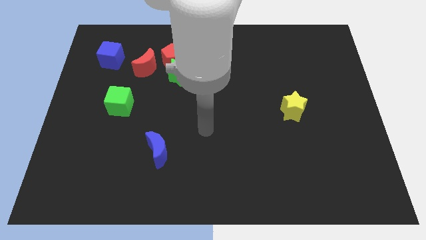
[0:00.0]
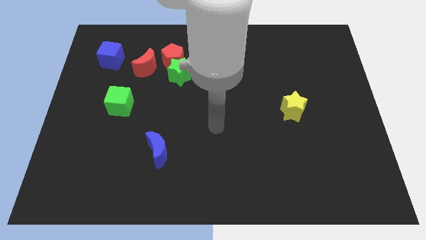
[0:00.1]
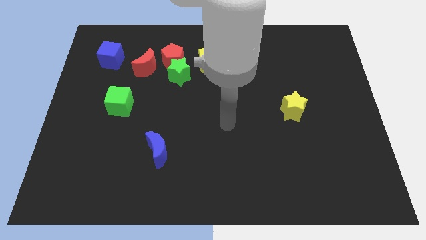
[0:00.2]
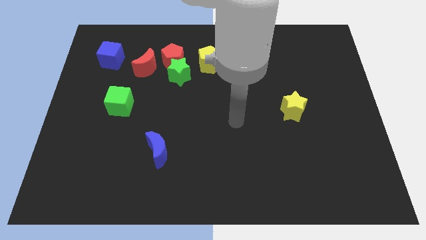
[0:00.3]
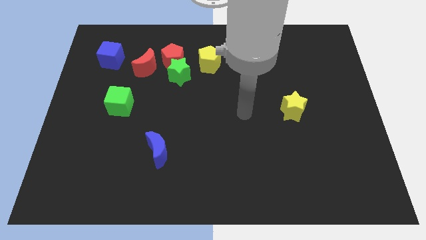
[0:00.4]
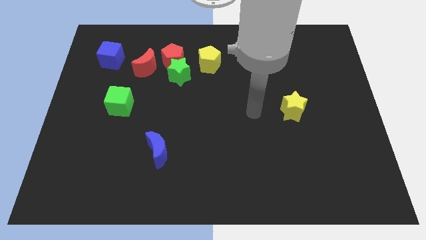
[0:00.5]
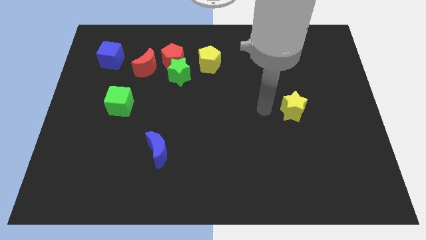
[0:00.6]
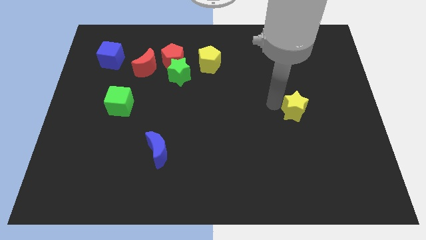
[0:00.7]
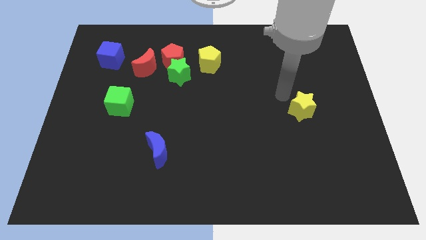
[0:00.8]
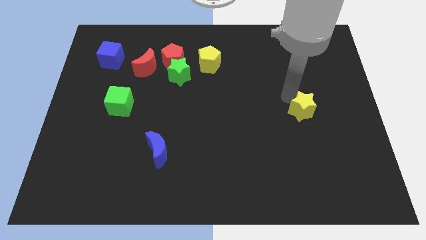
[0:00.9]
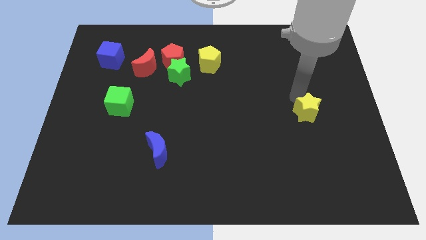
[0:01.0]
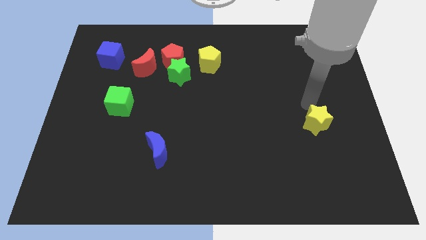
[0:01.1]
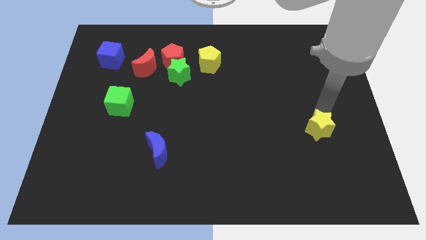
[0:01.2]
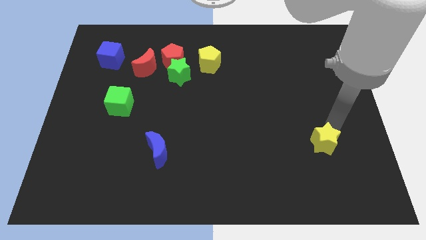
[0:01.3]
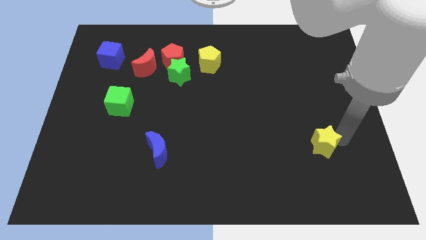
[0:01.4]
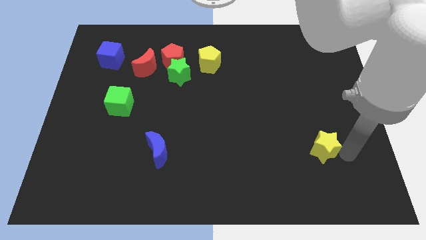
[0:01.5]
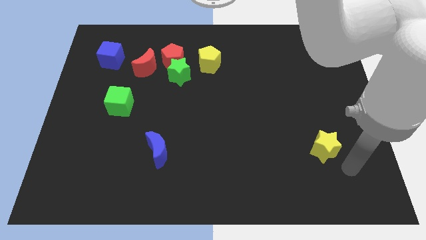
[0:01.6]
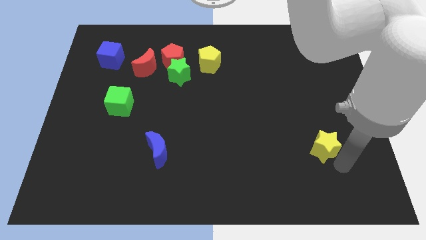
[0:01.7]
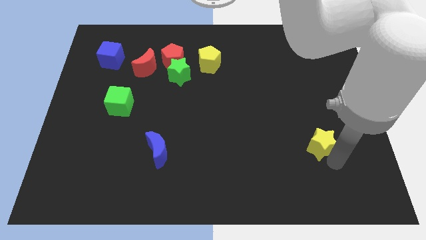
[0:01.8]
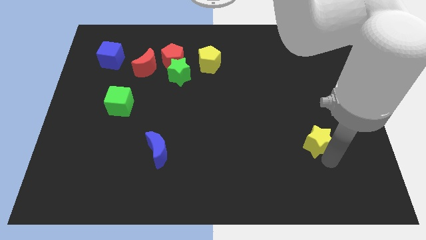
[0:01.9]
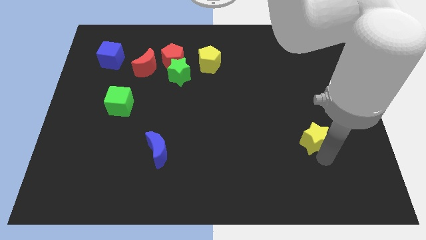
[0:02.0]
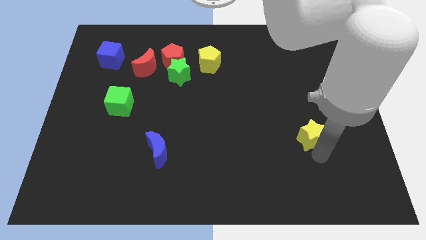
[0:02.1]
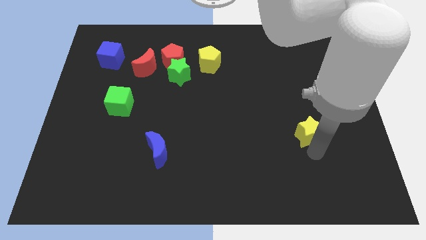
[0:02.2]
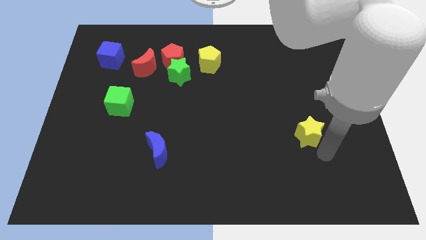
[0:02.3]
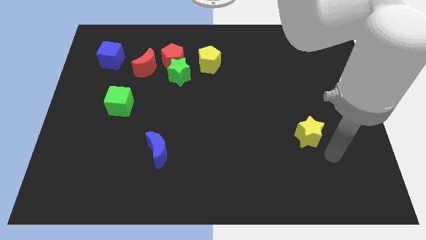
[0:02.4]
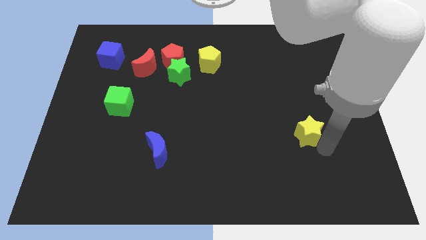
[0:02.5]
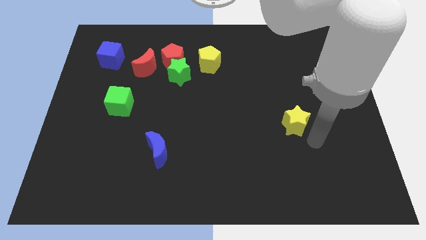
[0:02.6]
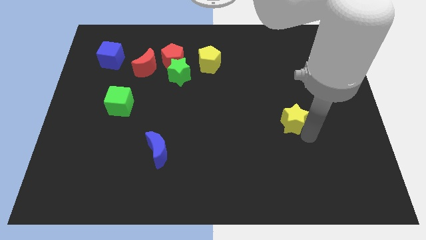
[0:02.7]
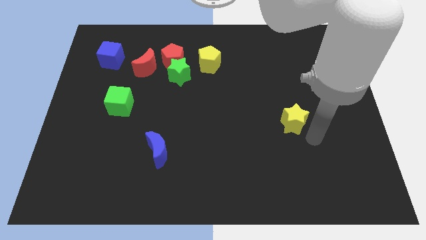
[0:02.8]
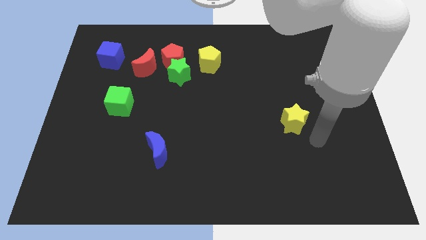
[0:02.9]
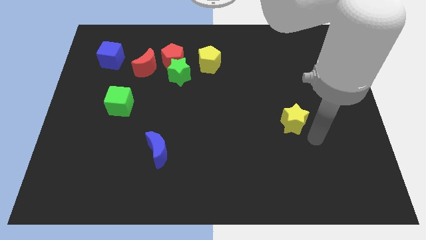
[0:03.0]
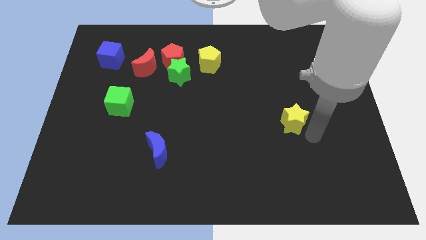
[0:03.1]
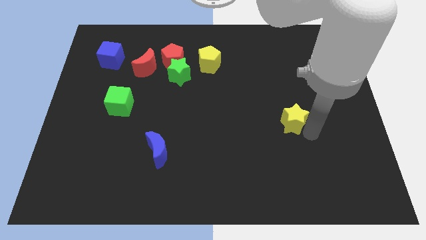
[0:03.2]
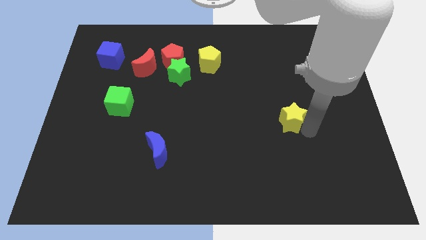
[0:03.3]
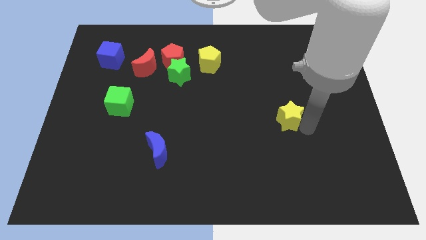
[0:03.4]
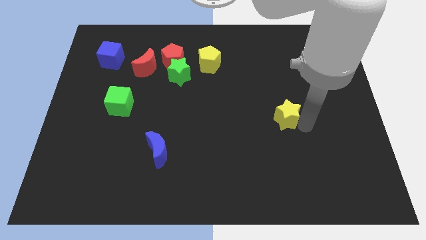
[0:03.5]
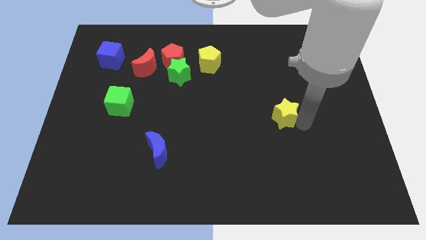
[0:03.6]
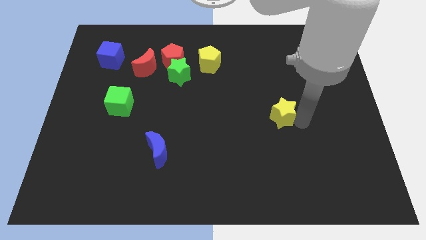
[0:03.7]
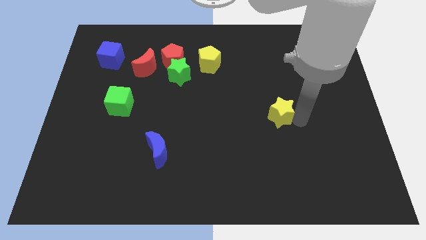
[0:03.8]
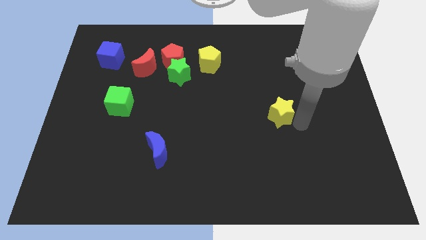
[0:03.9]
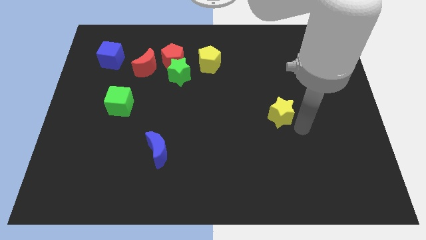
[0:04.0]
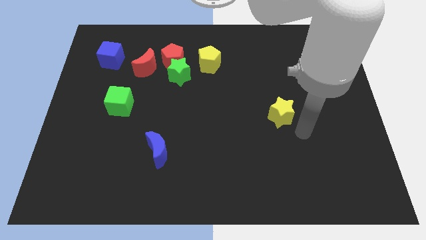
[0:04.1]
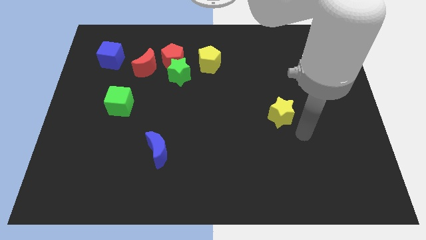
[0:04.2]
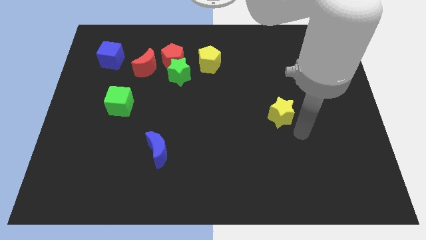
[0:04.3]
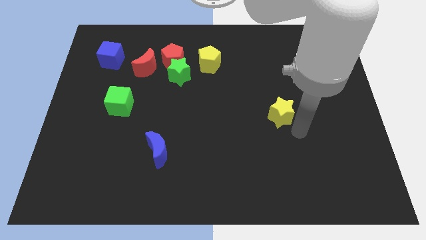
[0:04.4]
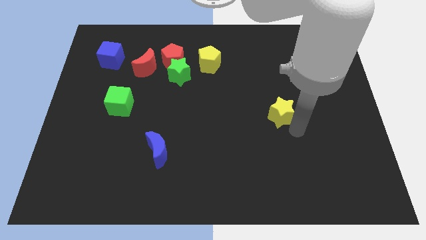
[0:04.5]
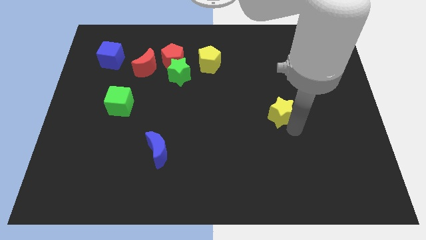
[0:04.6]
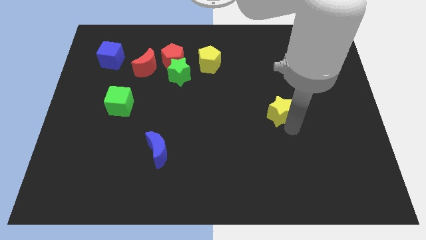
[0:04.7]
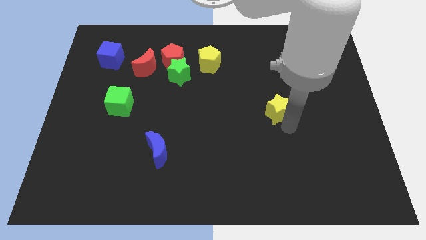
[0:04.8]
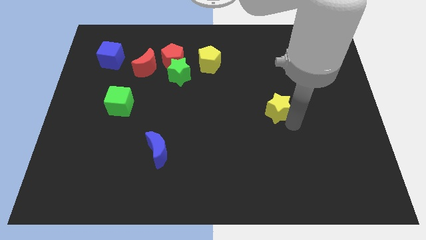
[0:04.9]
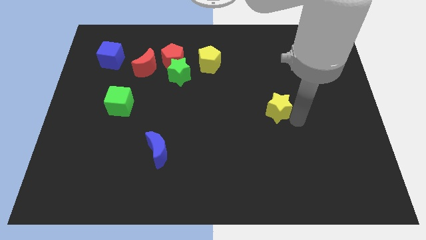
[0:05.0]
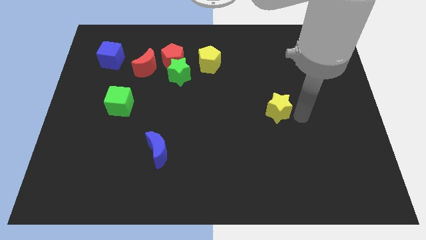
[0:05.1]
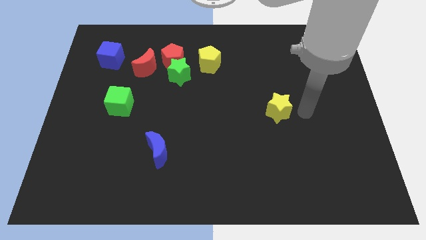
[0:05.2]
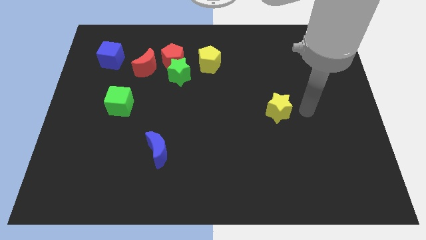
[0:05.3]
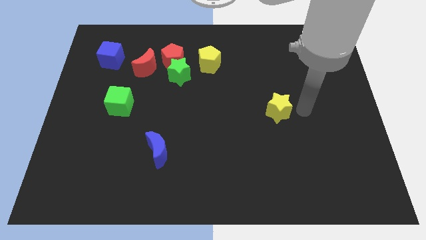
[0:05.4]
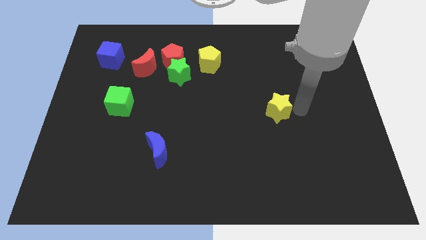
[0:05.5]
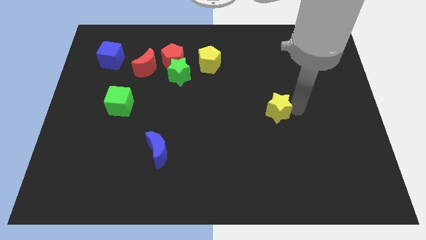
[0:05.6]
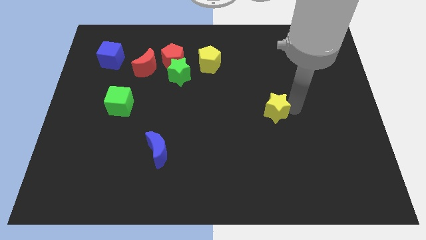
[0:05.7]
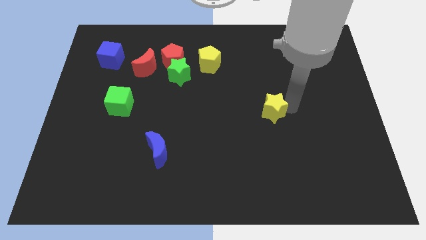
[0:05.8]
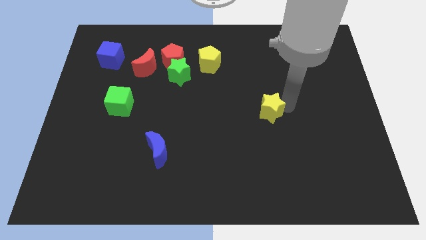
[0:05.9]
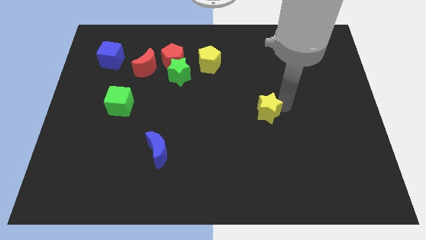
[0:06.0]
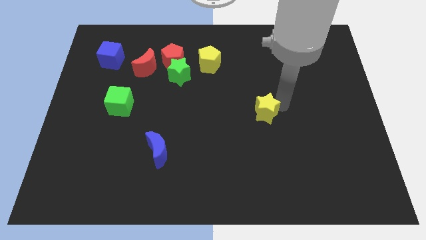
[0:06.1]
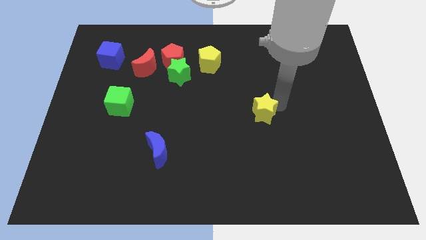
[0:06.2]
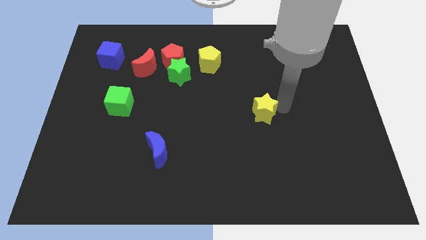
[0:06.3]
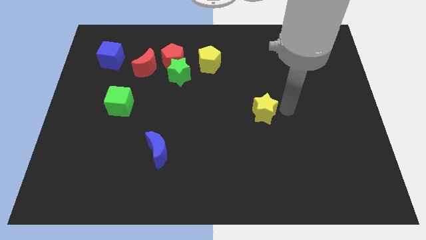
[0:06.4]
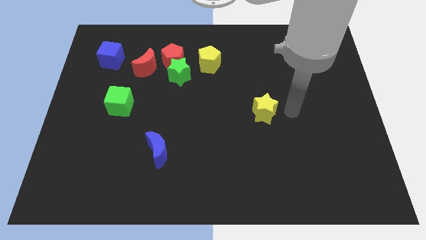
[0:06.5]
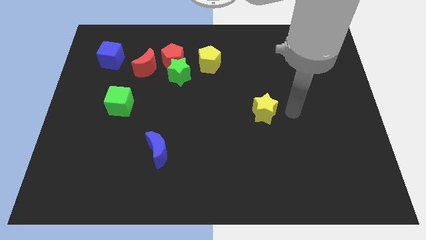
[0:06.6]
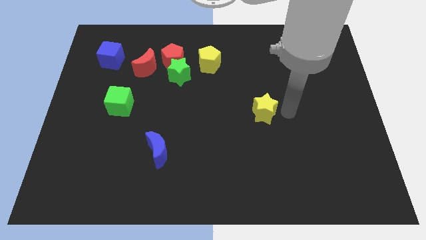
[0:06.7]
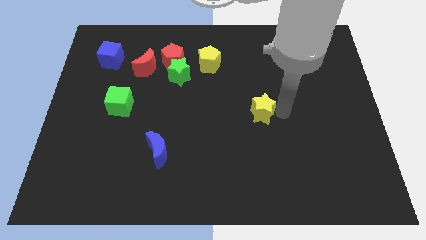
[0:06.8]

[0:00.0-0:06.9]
move the yellow star somewhat left

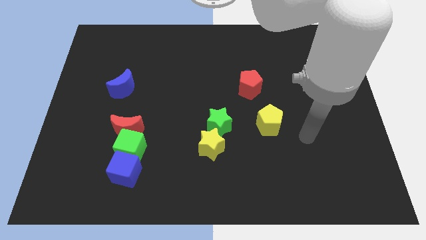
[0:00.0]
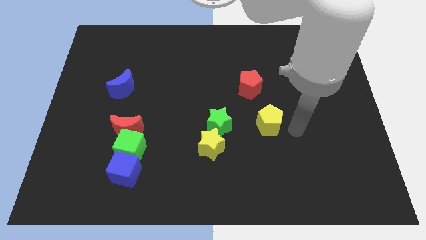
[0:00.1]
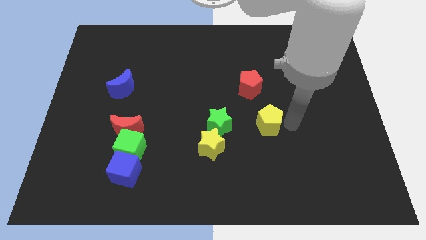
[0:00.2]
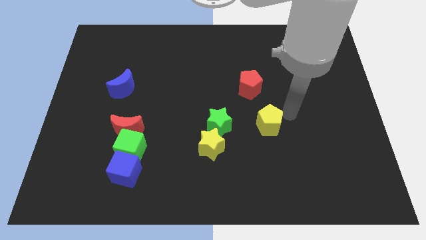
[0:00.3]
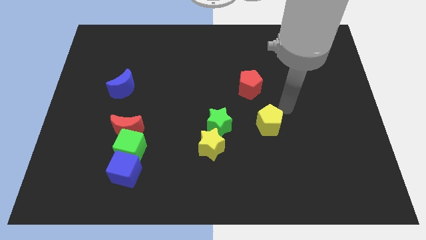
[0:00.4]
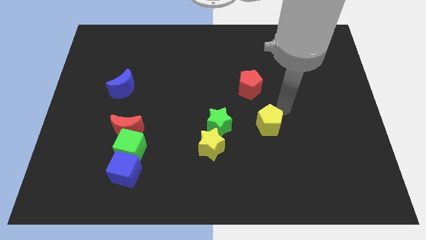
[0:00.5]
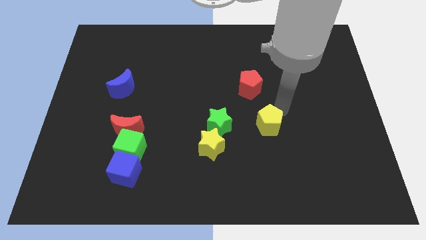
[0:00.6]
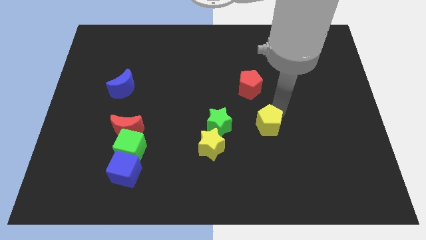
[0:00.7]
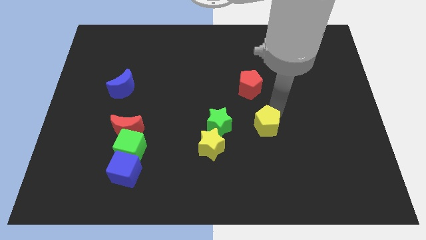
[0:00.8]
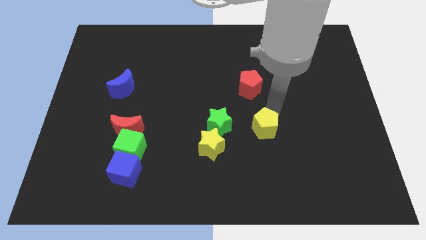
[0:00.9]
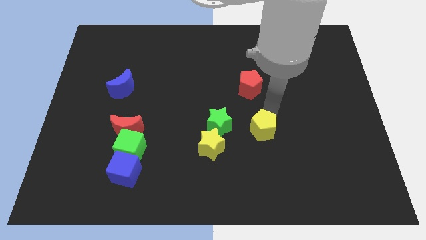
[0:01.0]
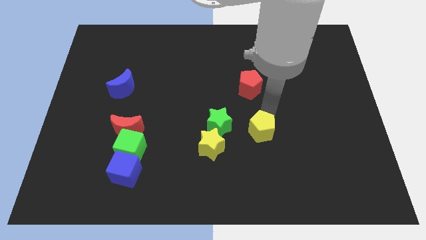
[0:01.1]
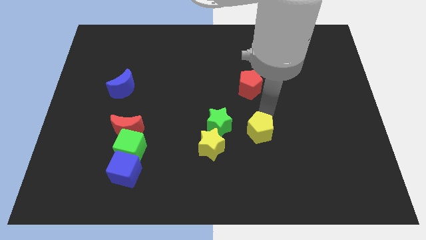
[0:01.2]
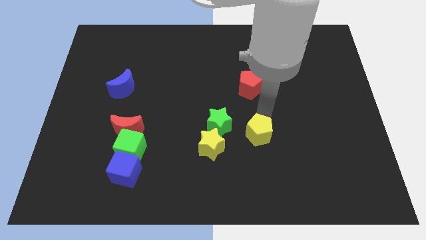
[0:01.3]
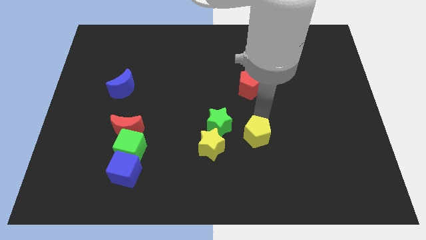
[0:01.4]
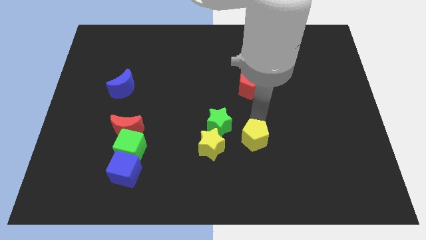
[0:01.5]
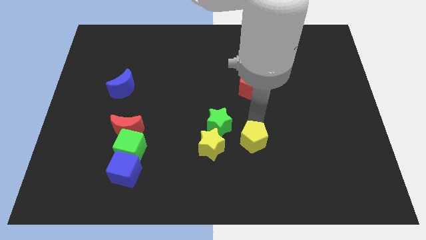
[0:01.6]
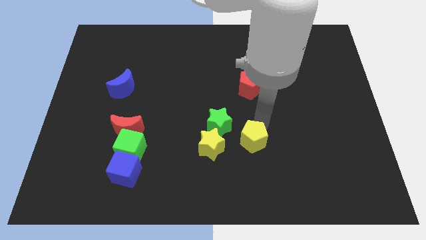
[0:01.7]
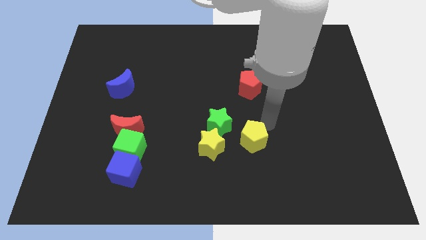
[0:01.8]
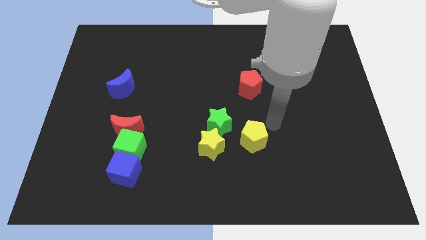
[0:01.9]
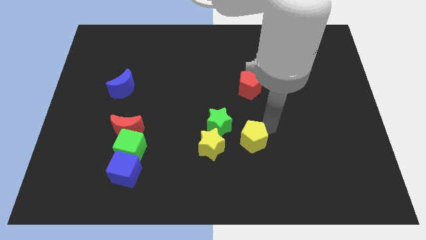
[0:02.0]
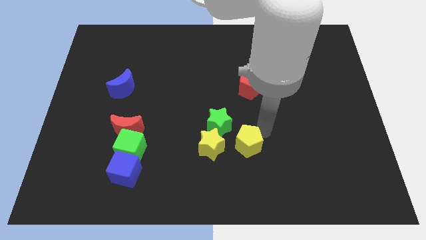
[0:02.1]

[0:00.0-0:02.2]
slightly push the yellow pentagon down and left
